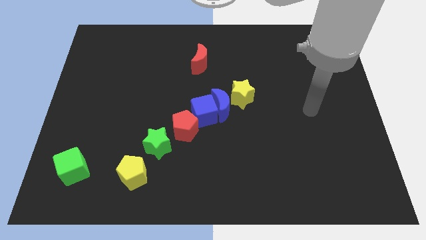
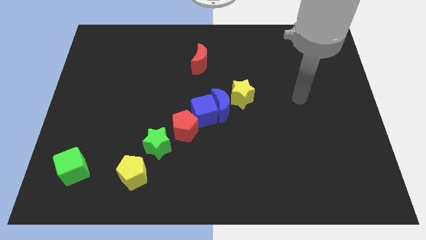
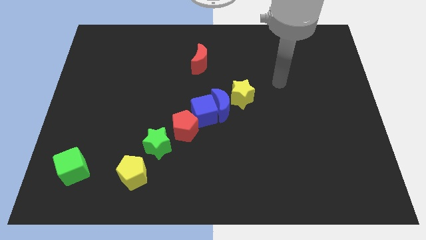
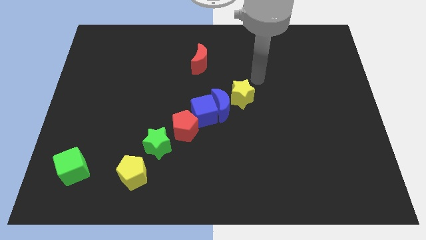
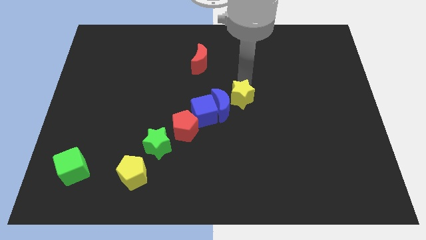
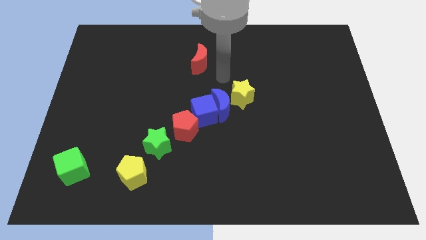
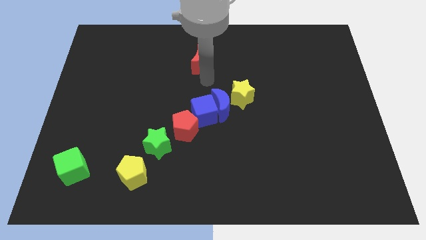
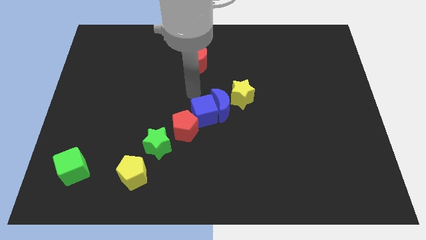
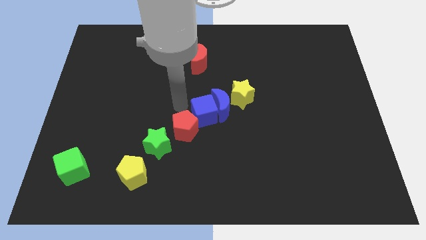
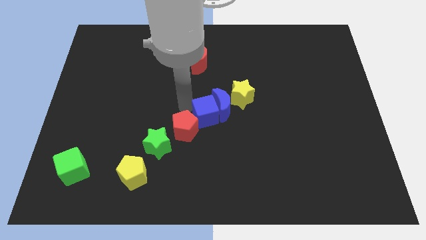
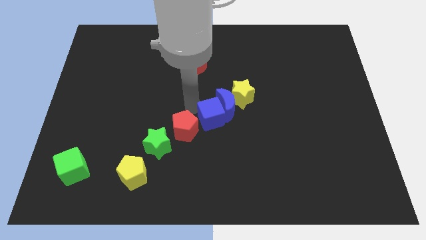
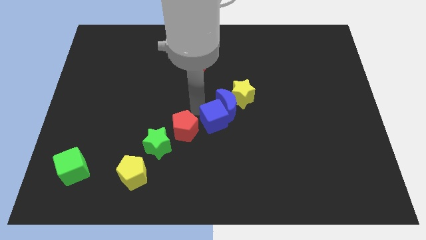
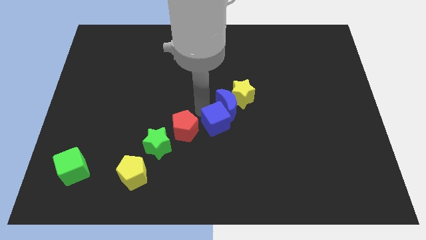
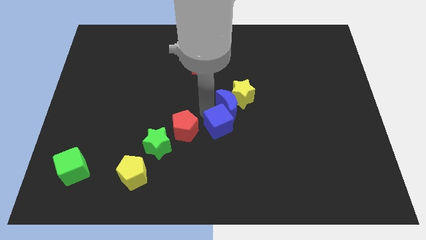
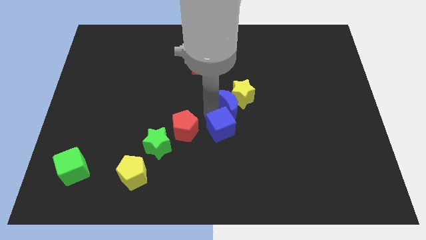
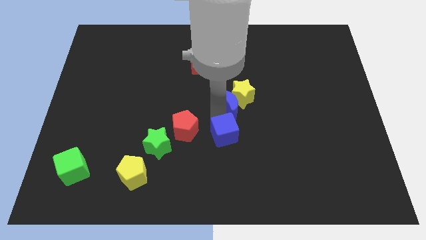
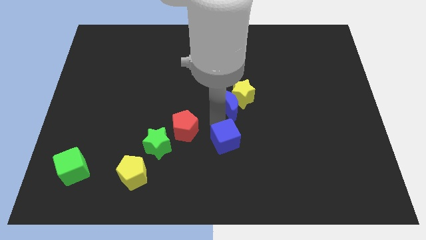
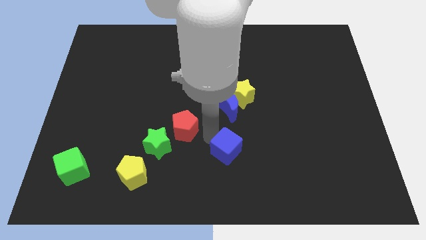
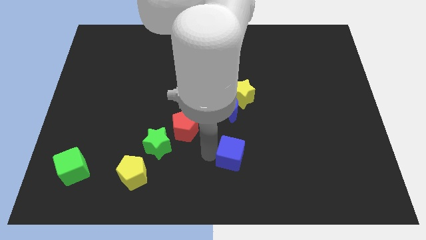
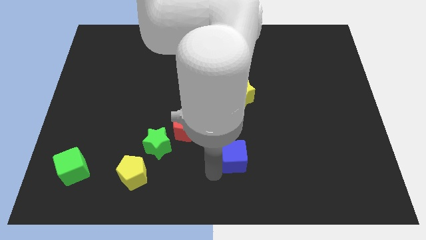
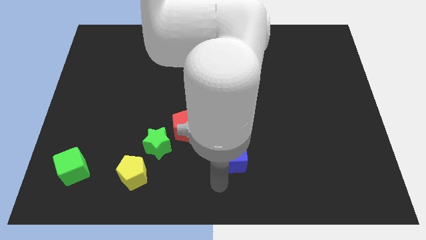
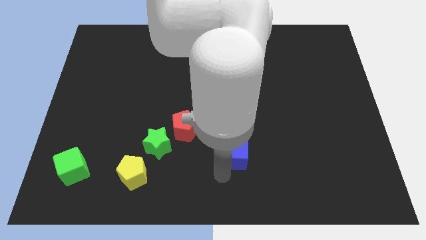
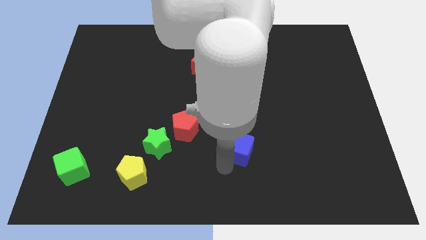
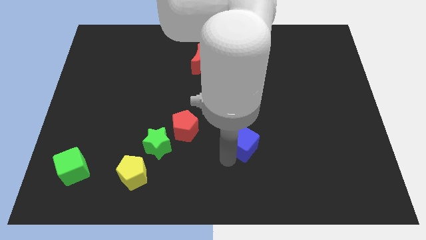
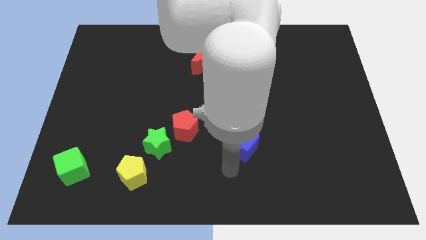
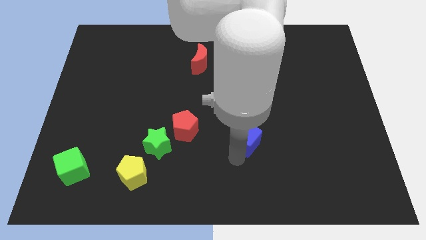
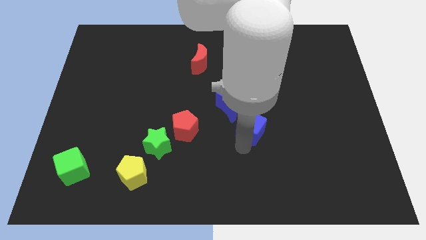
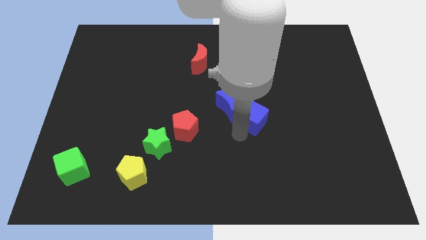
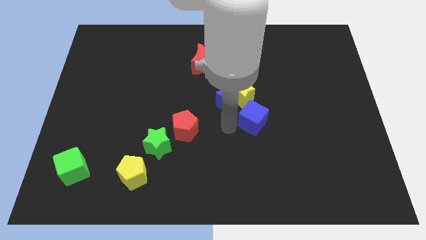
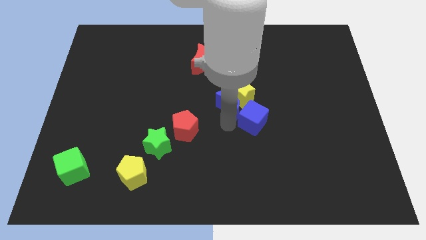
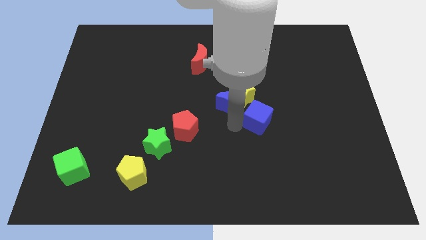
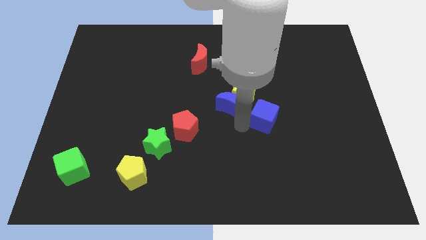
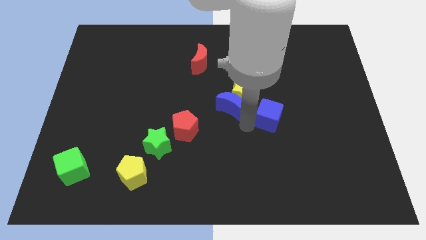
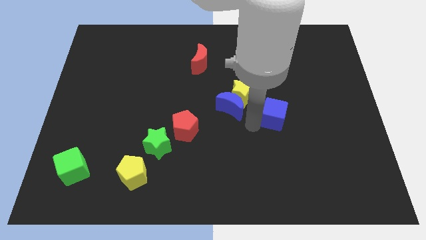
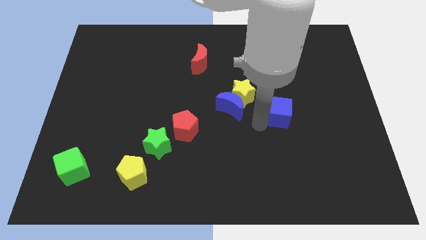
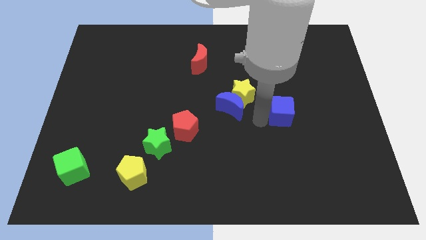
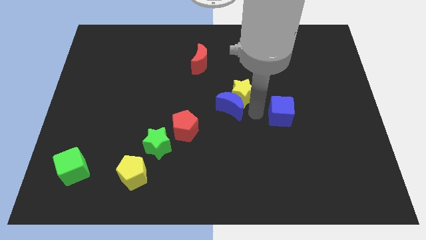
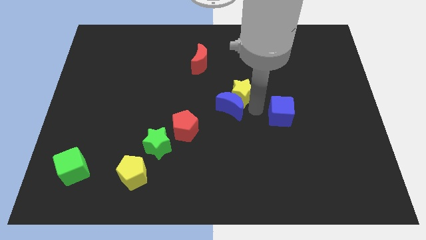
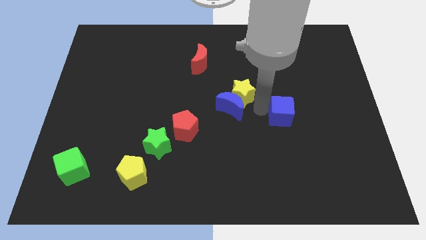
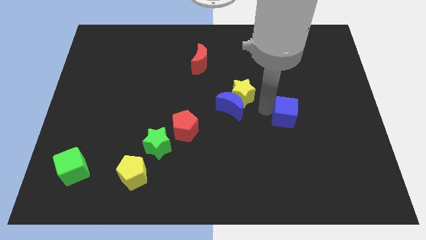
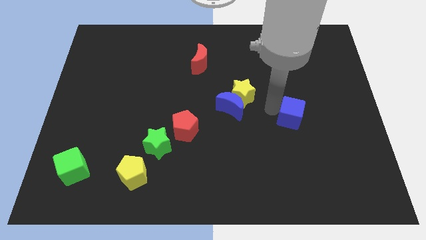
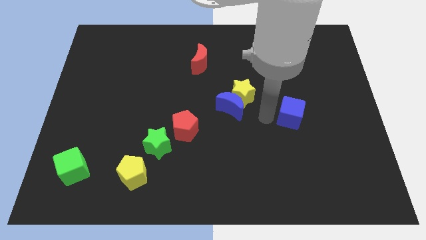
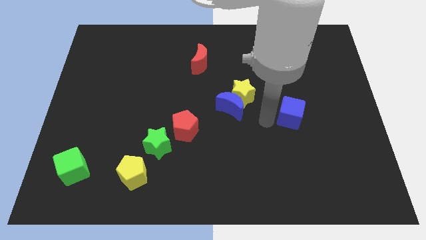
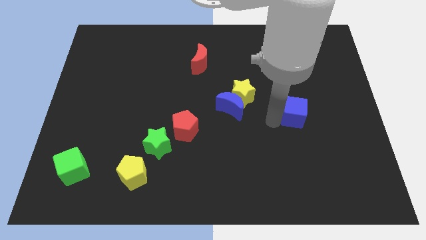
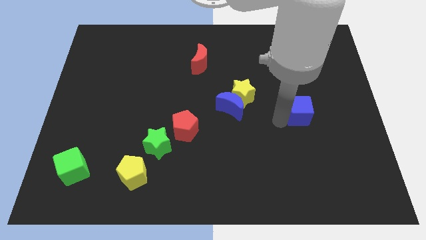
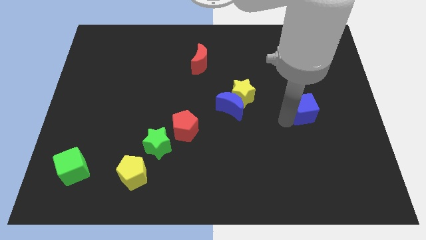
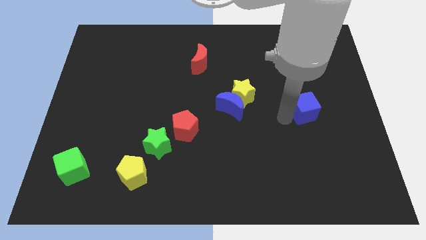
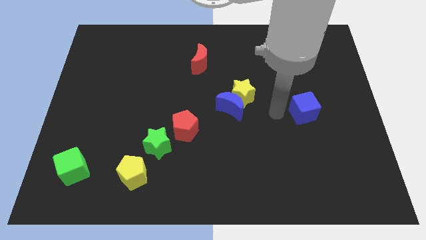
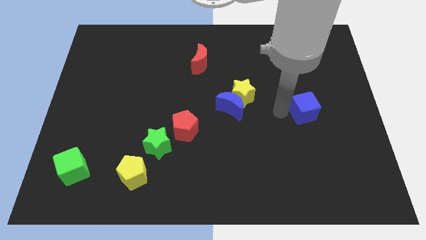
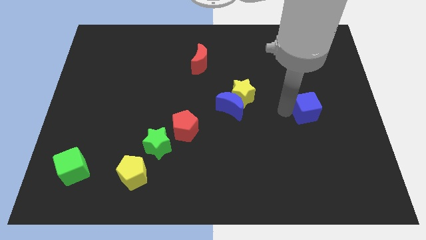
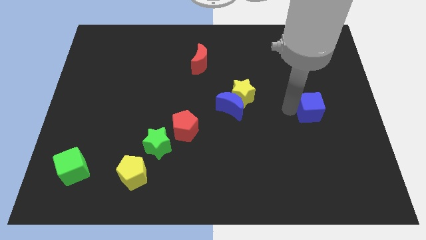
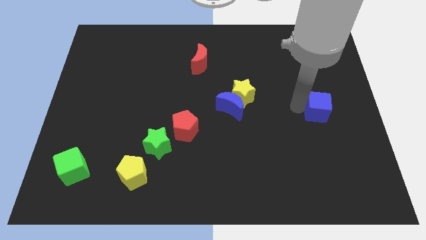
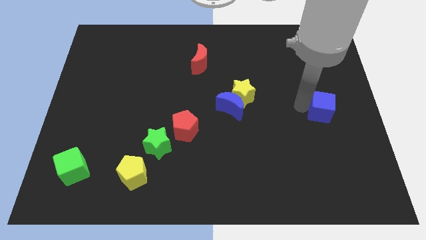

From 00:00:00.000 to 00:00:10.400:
move the blue cube to the right side of the board

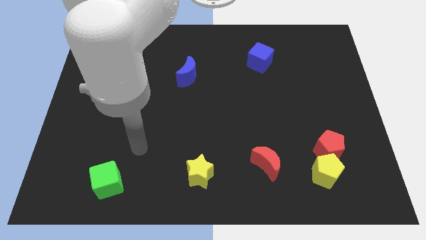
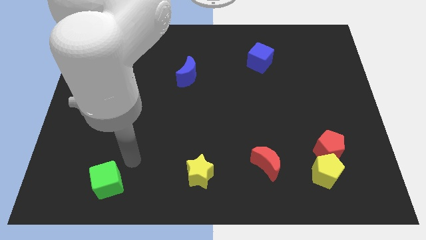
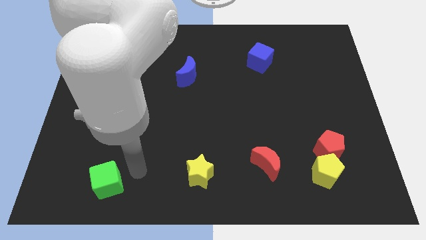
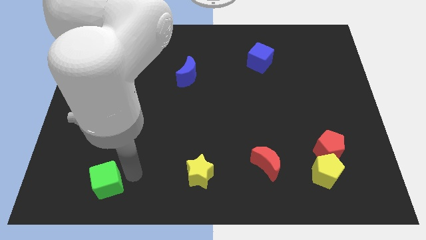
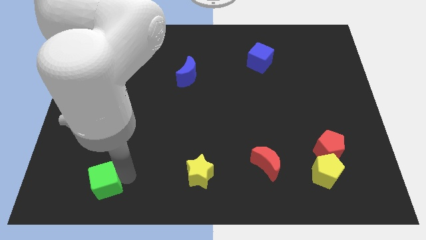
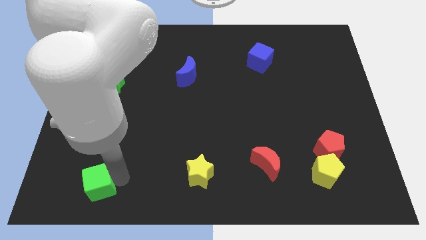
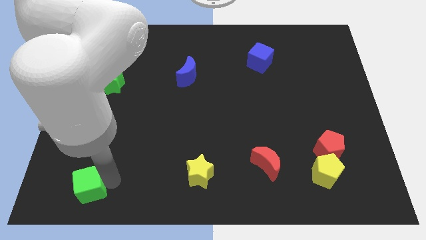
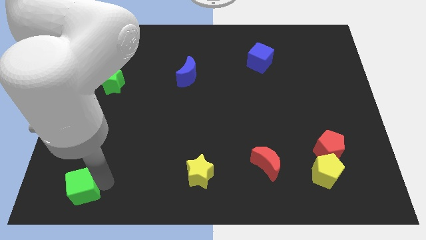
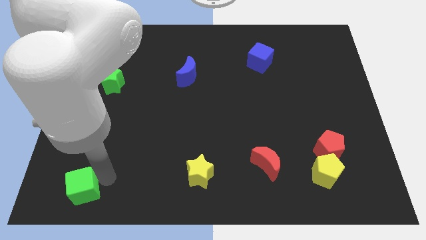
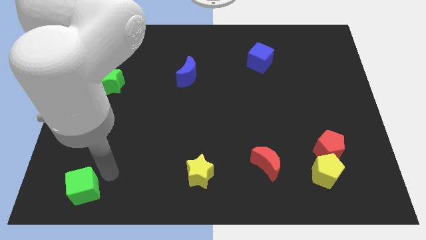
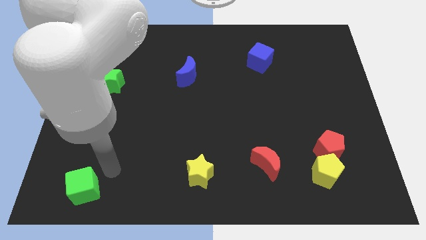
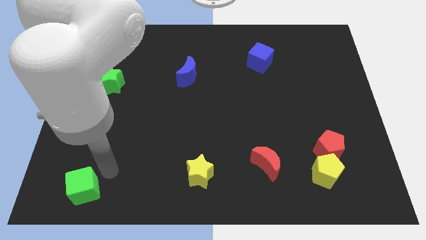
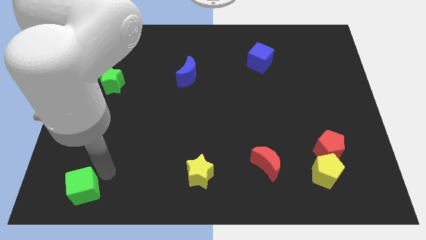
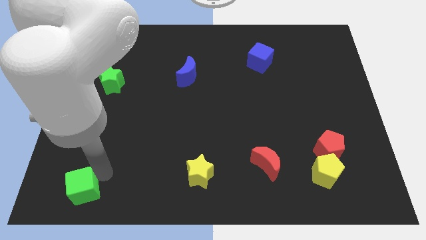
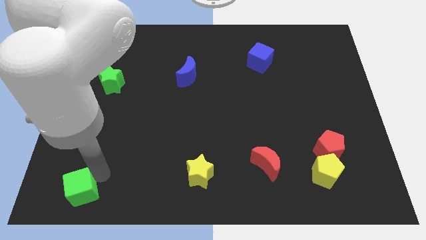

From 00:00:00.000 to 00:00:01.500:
slide the green cube to the bottom left of the board
